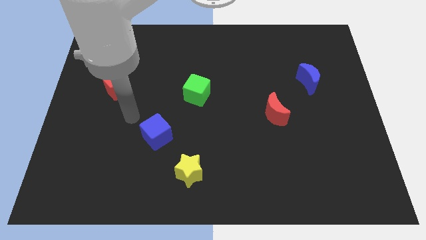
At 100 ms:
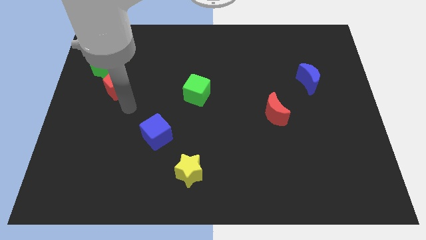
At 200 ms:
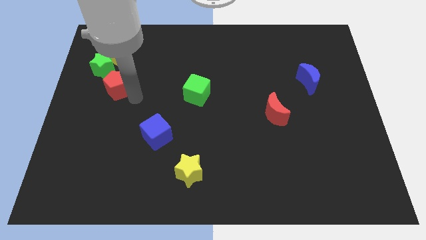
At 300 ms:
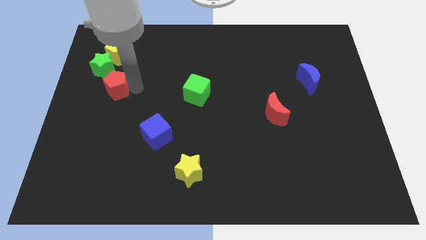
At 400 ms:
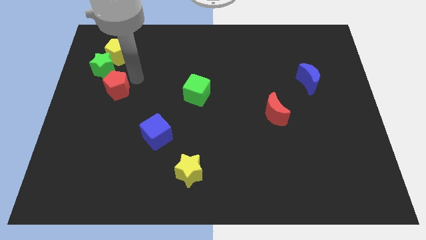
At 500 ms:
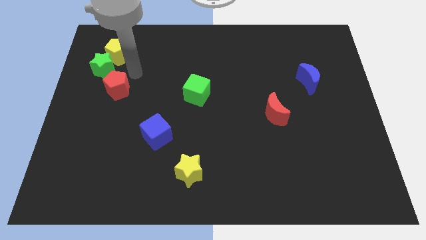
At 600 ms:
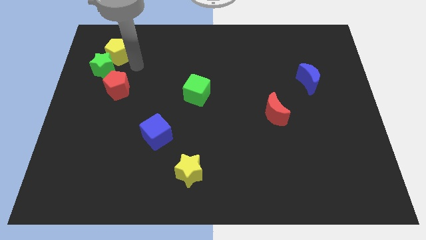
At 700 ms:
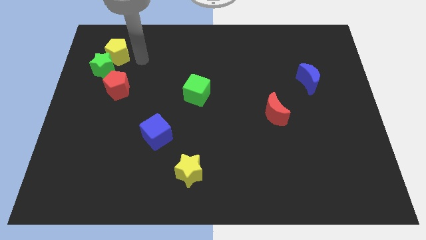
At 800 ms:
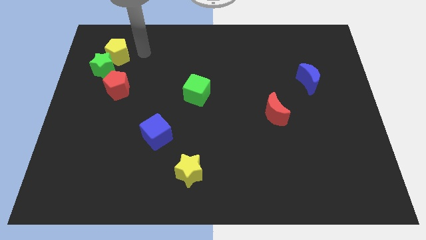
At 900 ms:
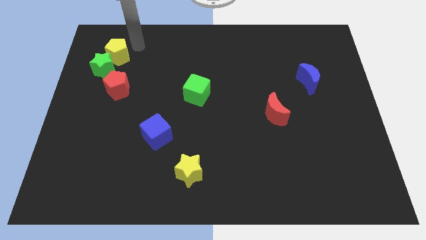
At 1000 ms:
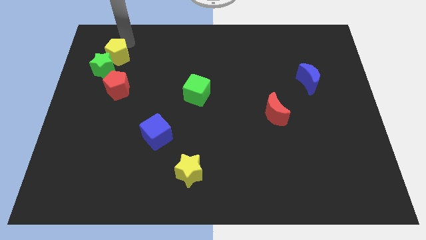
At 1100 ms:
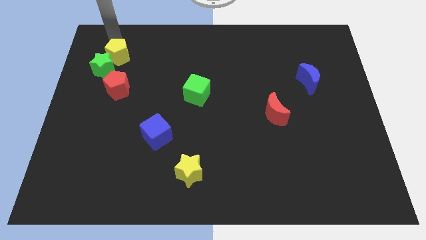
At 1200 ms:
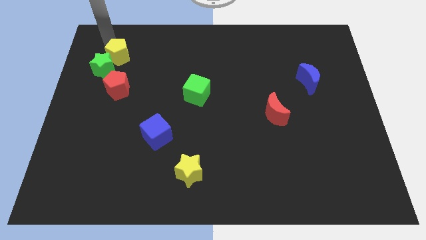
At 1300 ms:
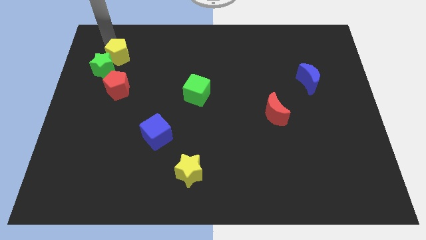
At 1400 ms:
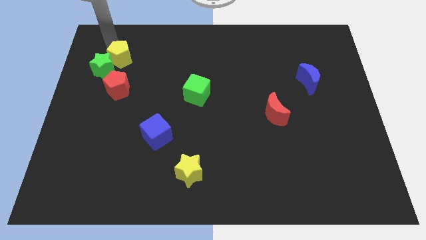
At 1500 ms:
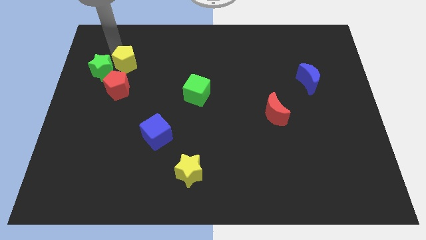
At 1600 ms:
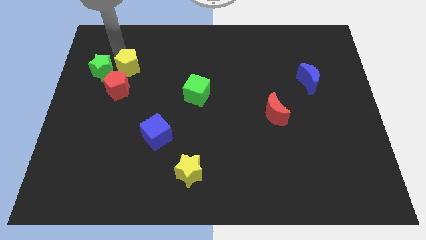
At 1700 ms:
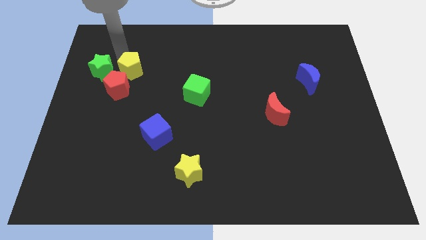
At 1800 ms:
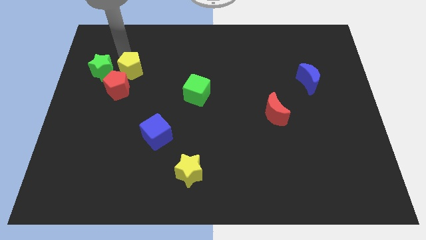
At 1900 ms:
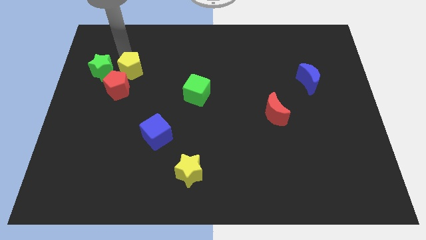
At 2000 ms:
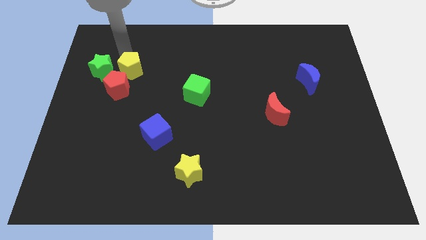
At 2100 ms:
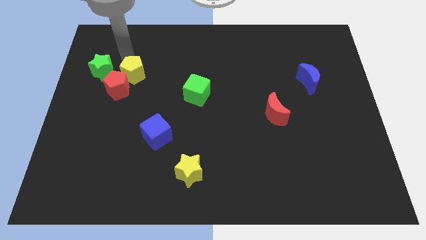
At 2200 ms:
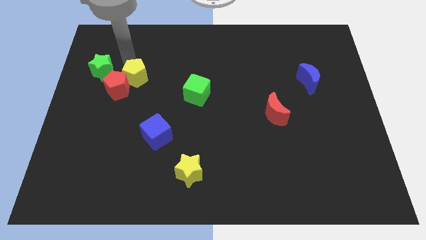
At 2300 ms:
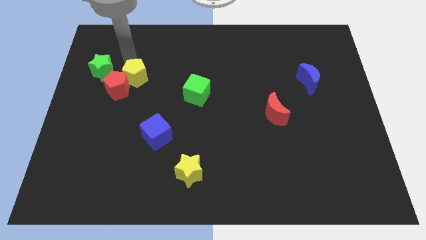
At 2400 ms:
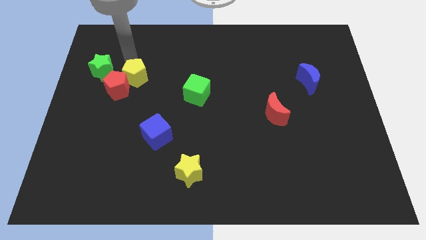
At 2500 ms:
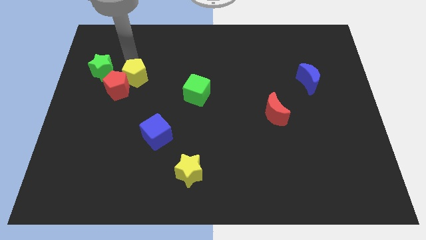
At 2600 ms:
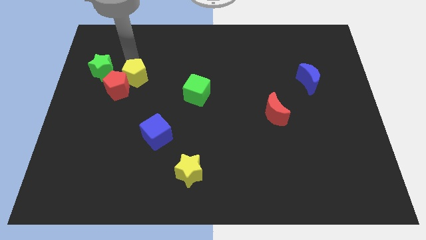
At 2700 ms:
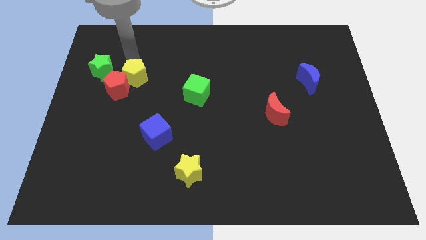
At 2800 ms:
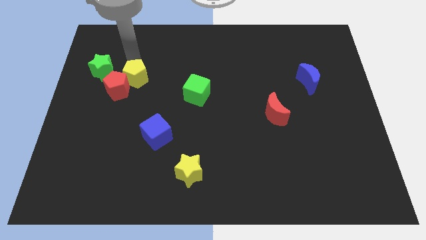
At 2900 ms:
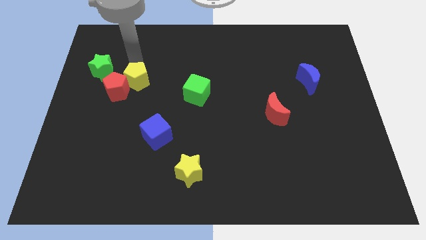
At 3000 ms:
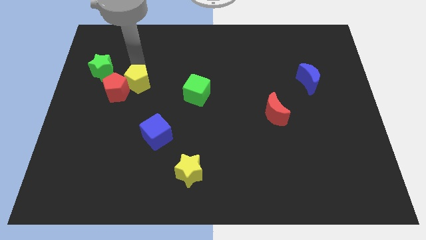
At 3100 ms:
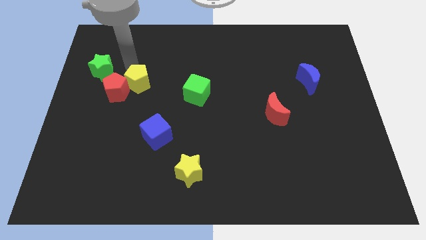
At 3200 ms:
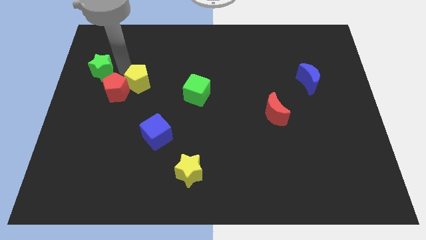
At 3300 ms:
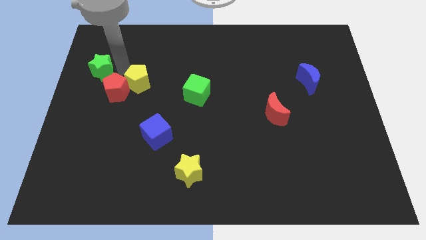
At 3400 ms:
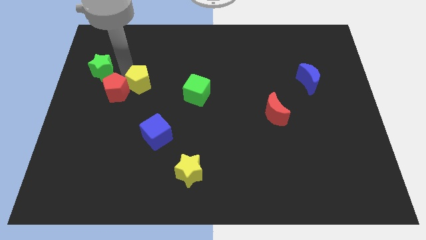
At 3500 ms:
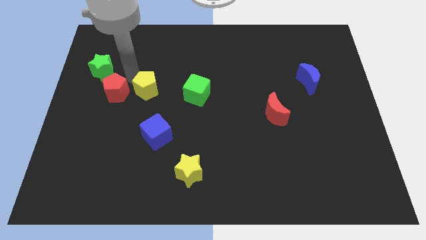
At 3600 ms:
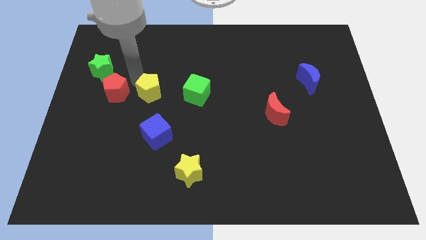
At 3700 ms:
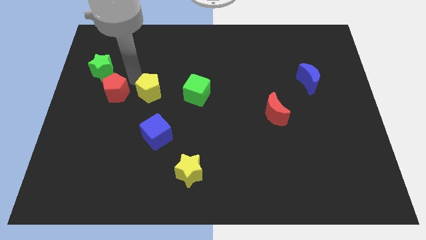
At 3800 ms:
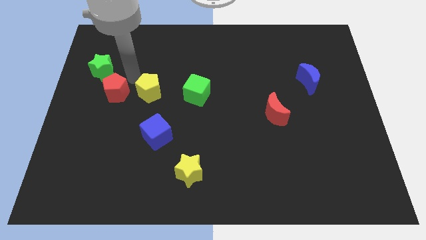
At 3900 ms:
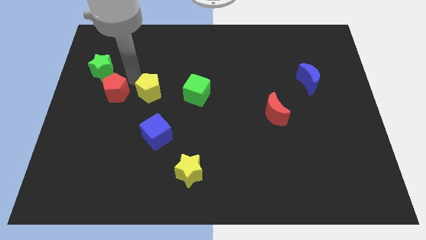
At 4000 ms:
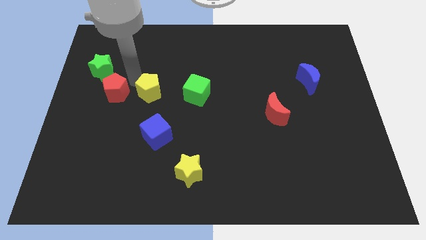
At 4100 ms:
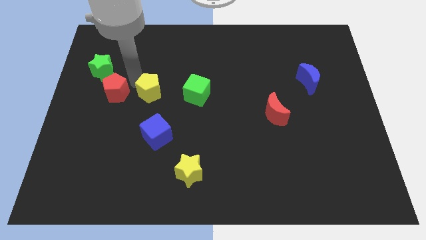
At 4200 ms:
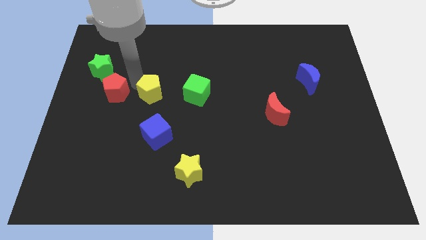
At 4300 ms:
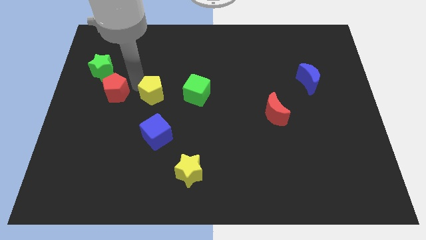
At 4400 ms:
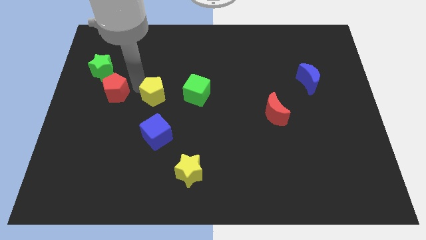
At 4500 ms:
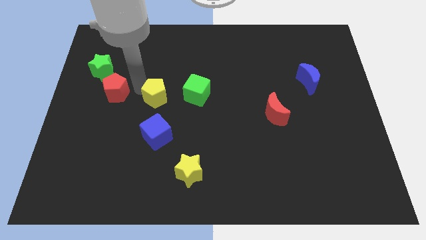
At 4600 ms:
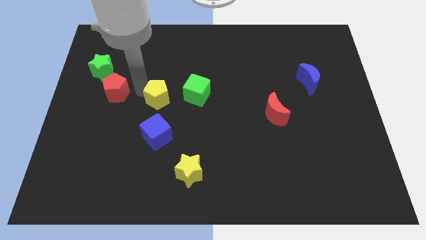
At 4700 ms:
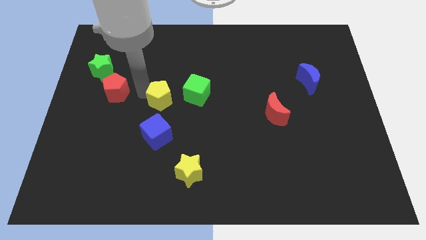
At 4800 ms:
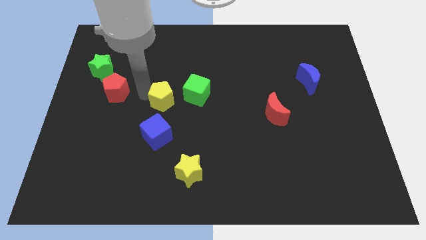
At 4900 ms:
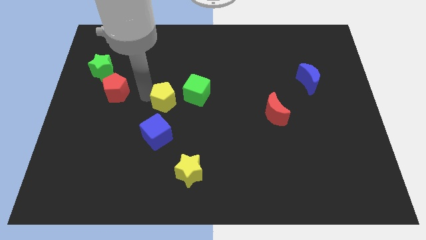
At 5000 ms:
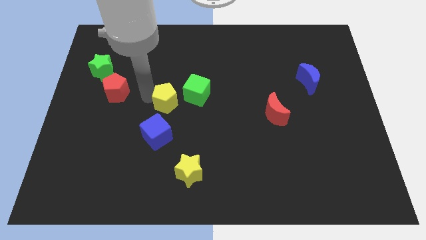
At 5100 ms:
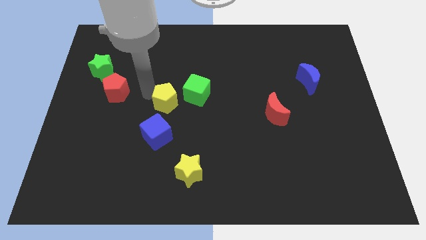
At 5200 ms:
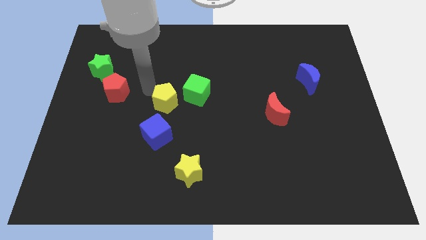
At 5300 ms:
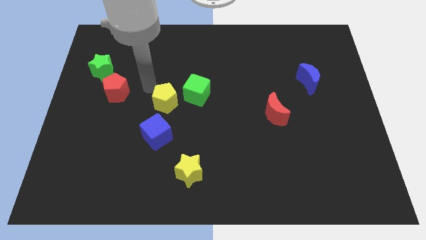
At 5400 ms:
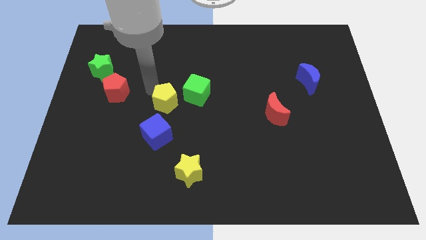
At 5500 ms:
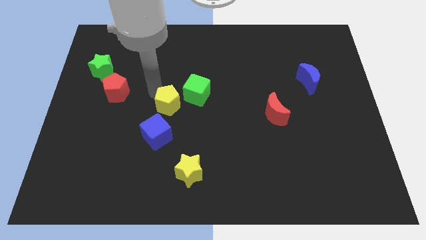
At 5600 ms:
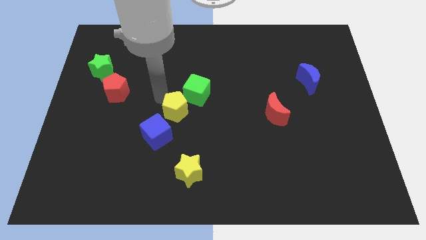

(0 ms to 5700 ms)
put the yellow pentagon to the bottom of the green cube

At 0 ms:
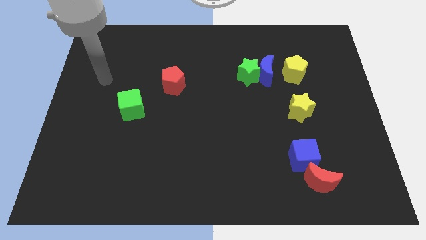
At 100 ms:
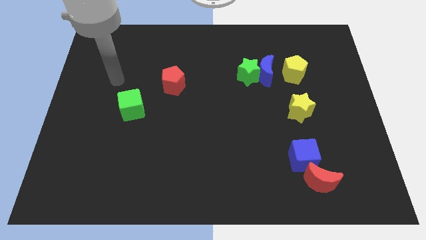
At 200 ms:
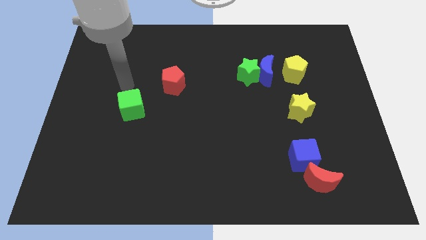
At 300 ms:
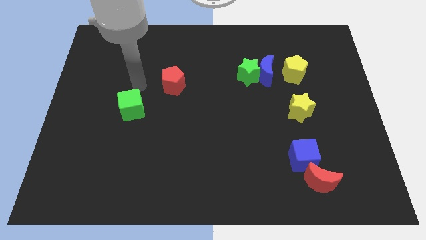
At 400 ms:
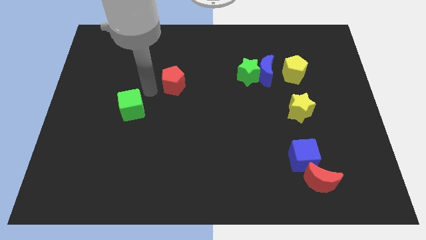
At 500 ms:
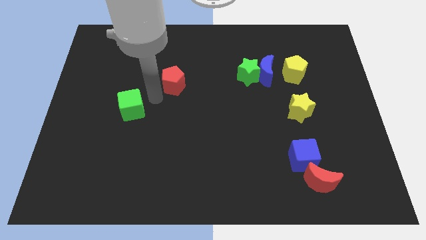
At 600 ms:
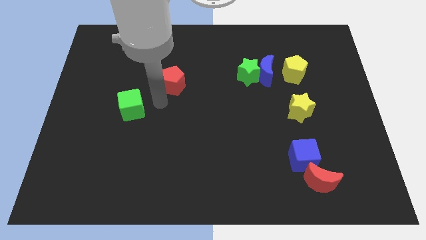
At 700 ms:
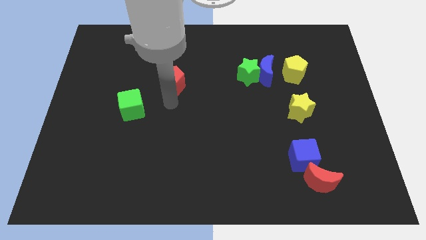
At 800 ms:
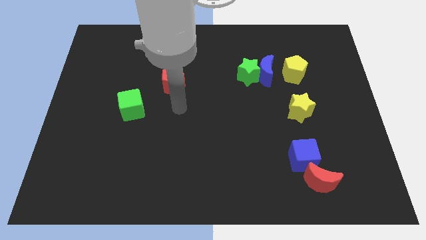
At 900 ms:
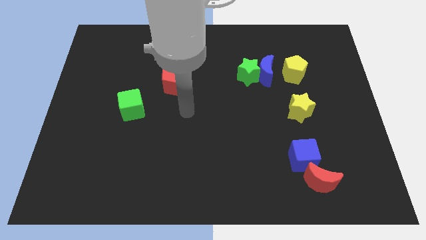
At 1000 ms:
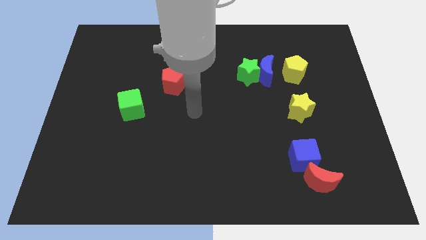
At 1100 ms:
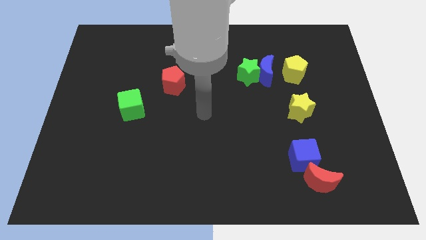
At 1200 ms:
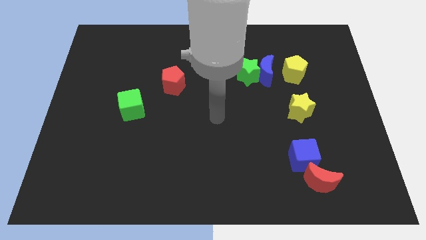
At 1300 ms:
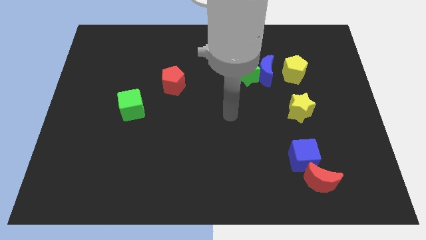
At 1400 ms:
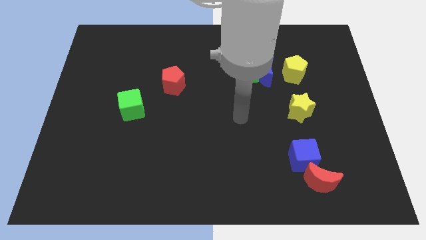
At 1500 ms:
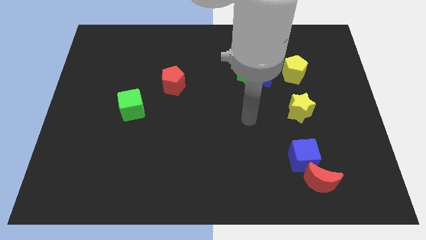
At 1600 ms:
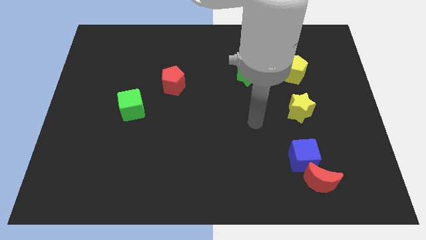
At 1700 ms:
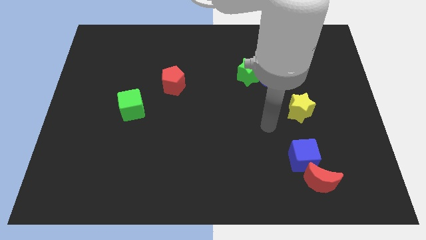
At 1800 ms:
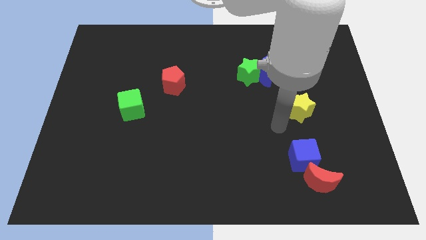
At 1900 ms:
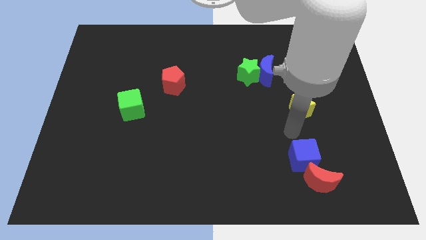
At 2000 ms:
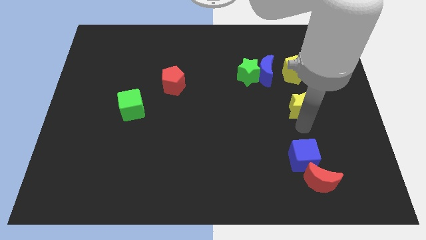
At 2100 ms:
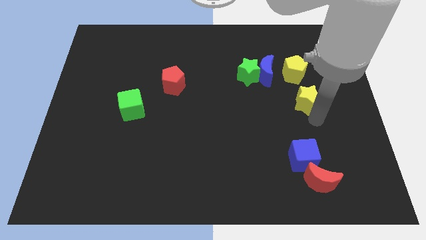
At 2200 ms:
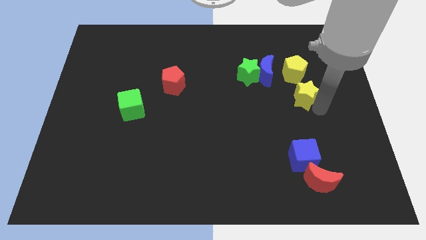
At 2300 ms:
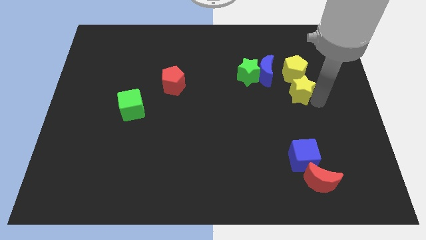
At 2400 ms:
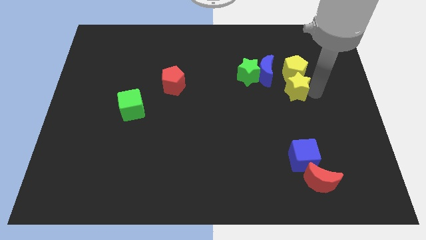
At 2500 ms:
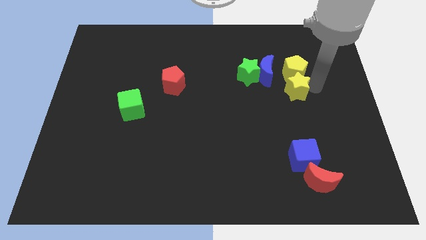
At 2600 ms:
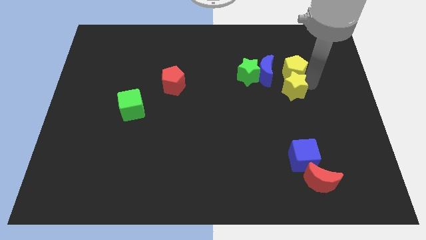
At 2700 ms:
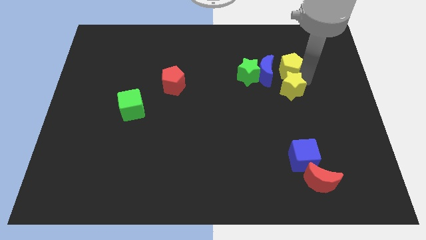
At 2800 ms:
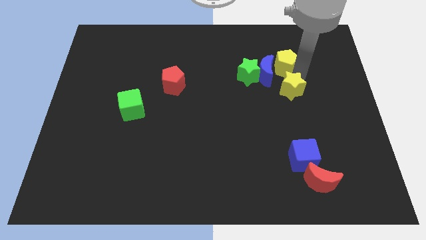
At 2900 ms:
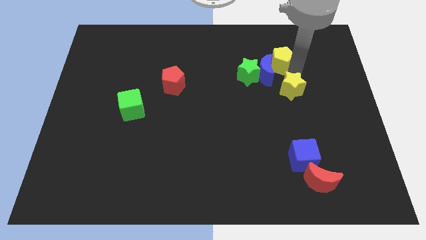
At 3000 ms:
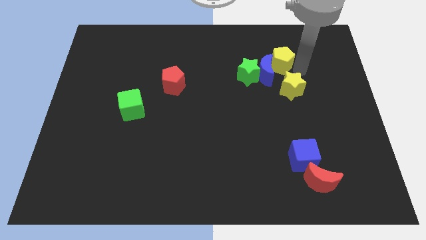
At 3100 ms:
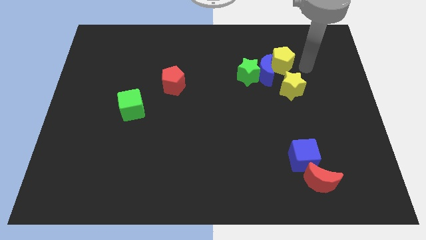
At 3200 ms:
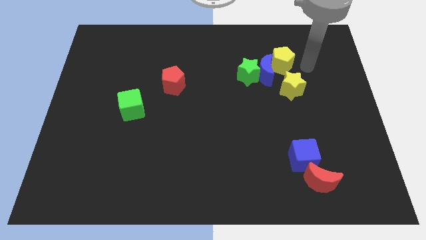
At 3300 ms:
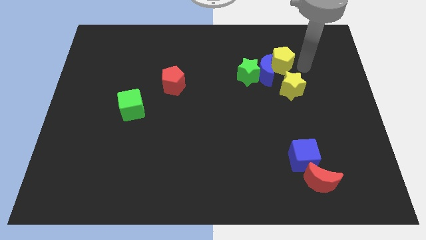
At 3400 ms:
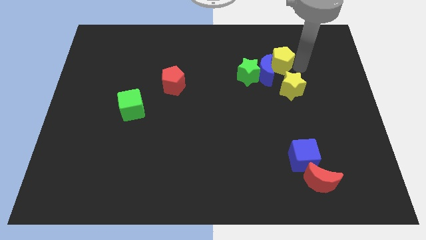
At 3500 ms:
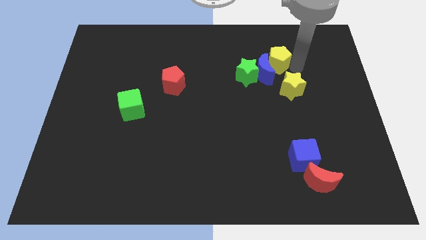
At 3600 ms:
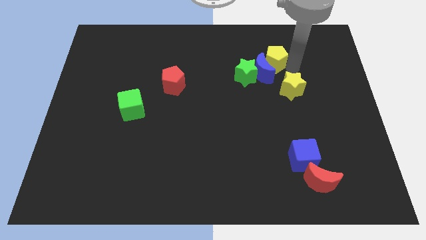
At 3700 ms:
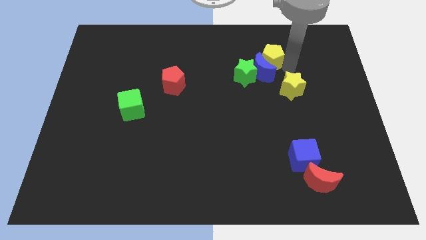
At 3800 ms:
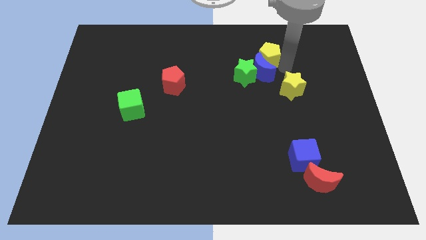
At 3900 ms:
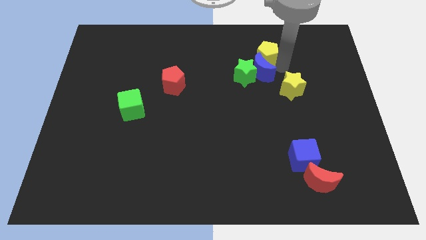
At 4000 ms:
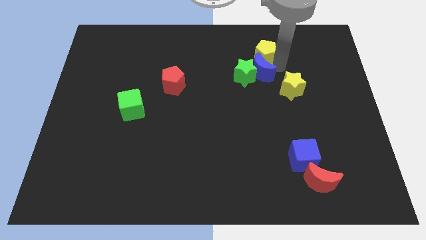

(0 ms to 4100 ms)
put the yellow pentagon to the top left of the blue moon
